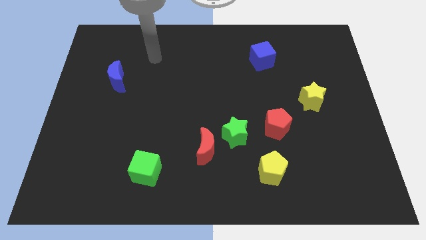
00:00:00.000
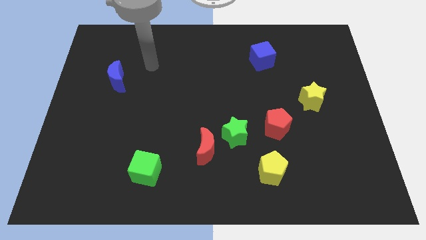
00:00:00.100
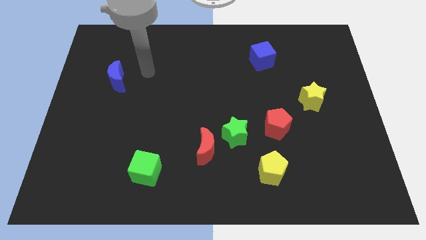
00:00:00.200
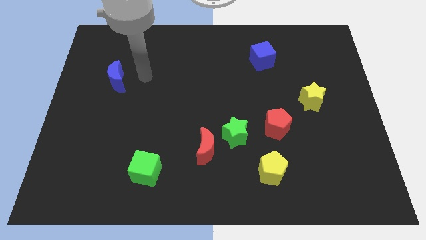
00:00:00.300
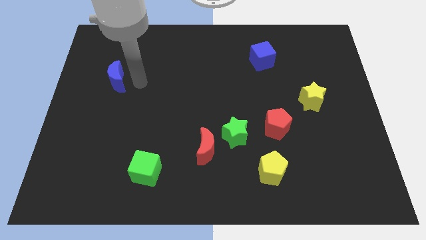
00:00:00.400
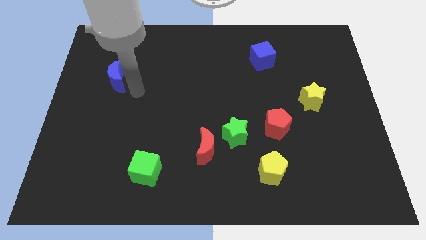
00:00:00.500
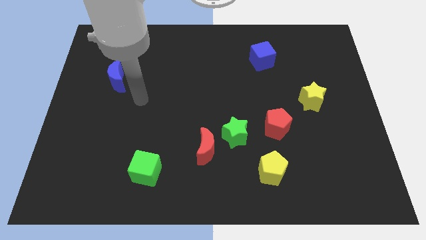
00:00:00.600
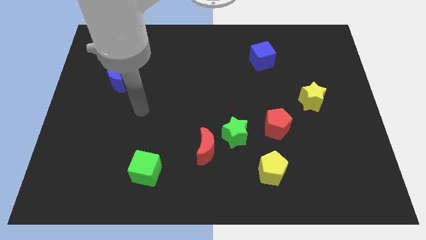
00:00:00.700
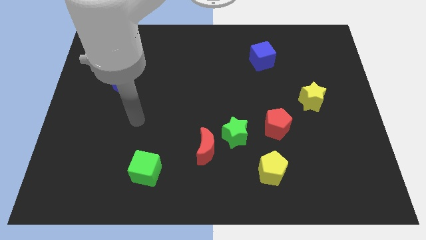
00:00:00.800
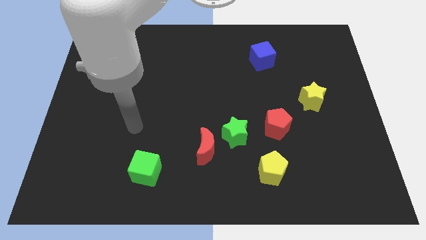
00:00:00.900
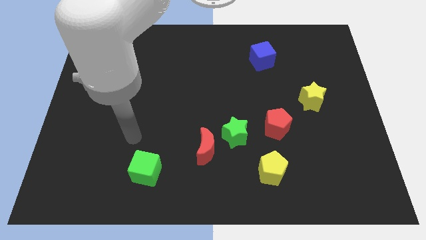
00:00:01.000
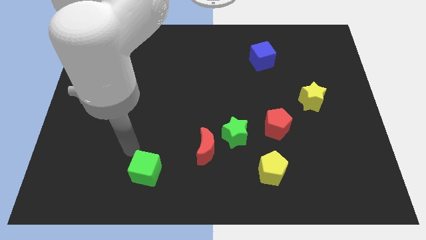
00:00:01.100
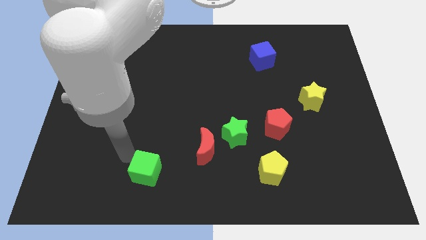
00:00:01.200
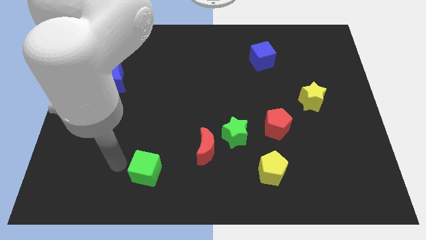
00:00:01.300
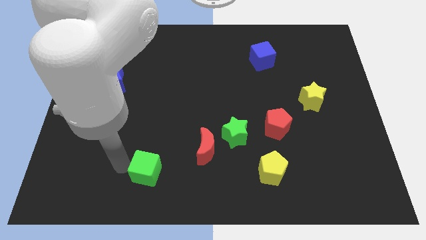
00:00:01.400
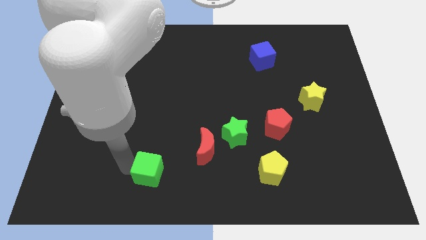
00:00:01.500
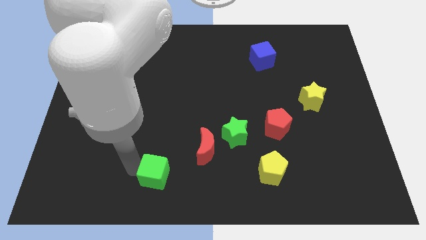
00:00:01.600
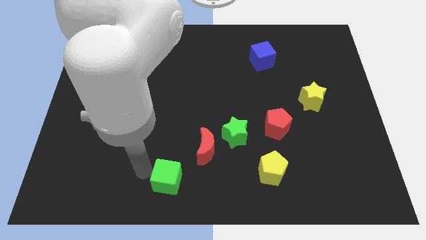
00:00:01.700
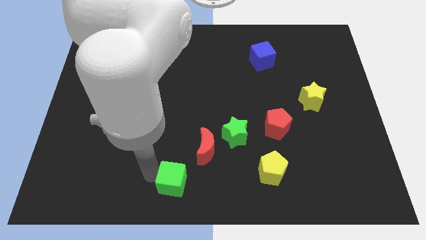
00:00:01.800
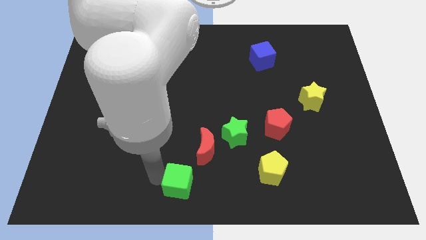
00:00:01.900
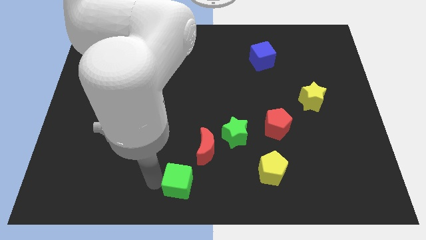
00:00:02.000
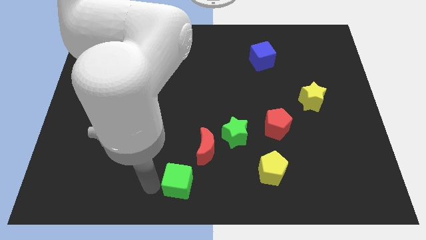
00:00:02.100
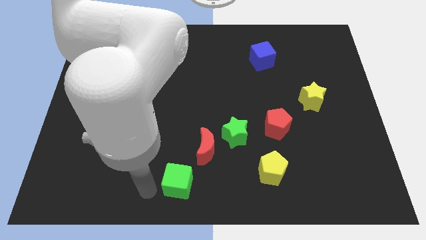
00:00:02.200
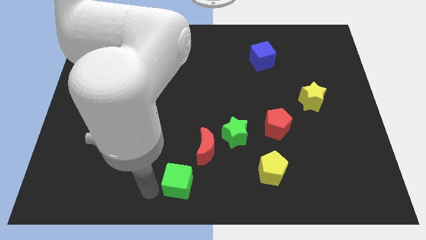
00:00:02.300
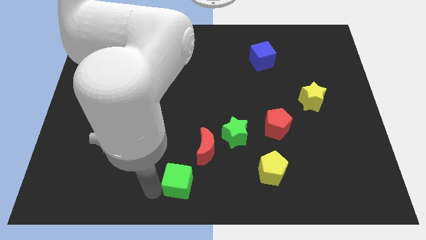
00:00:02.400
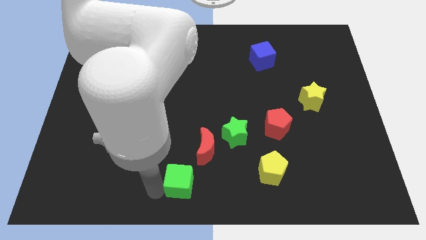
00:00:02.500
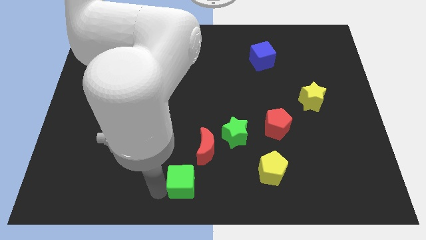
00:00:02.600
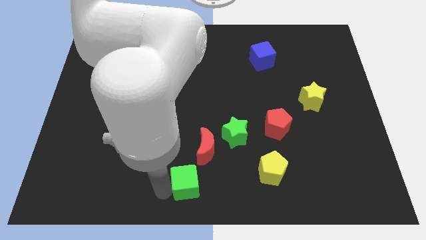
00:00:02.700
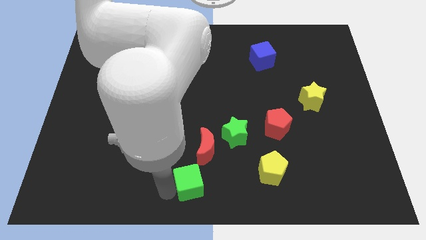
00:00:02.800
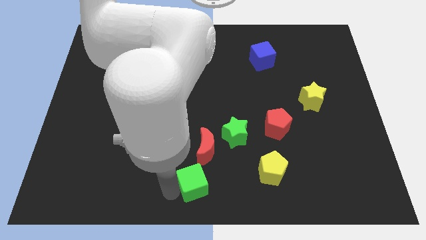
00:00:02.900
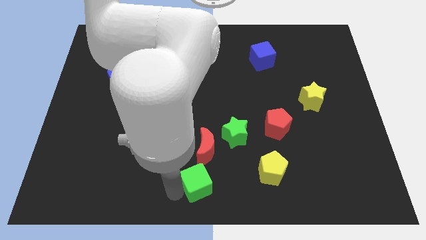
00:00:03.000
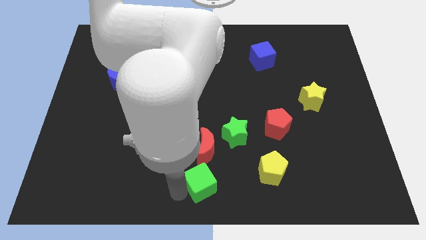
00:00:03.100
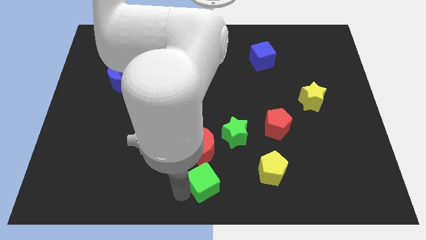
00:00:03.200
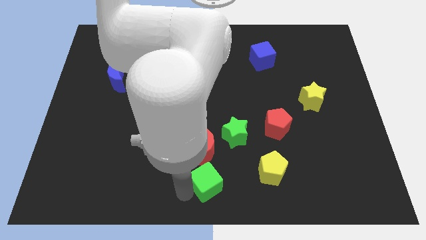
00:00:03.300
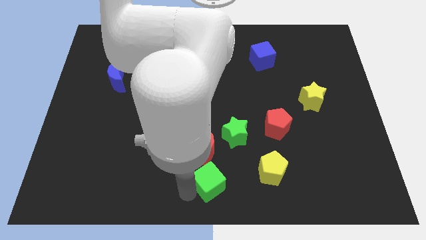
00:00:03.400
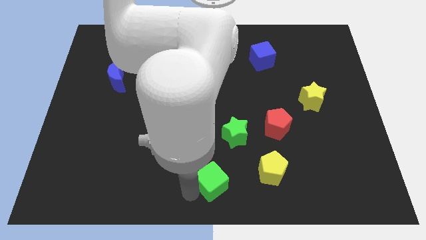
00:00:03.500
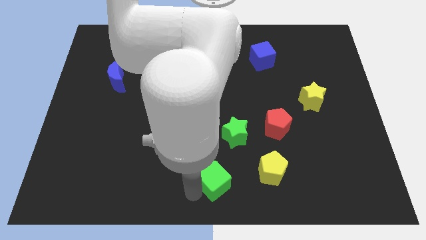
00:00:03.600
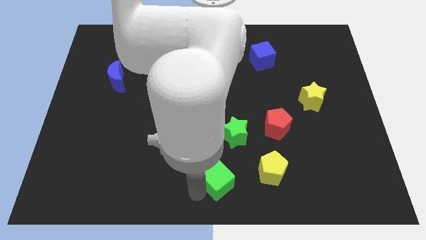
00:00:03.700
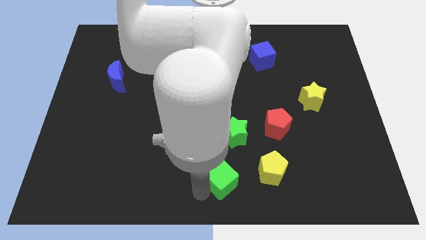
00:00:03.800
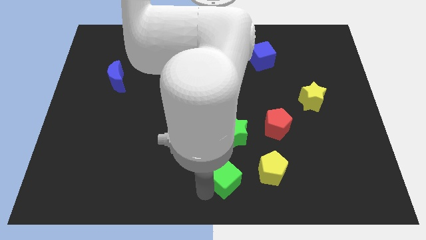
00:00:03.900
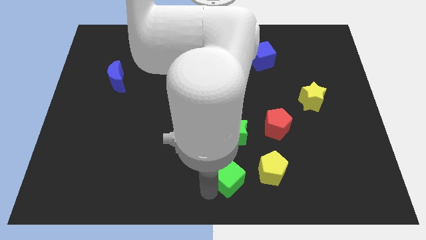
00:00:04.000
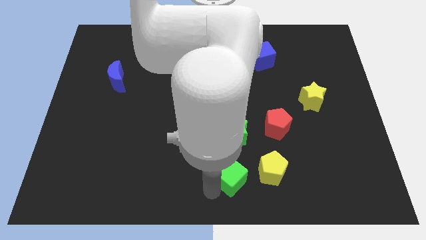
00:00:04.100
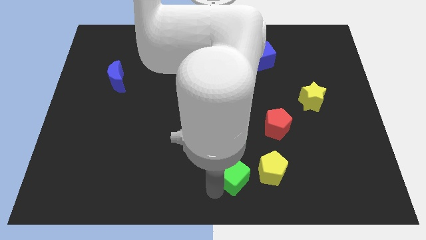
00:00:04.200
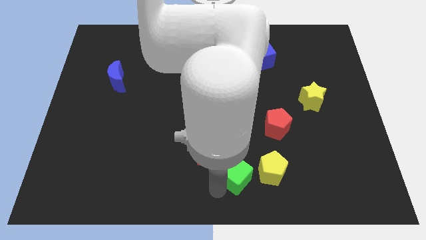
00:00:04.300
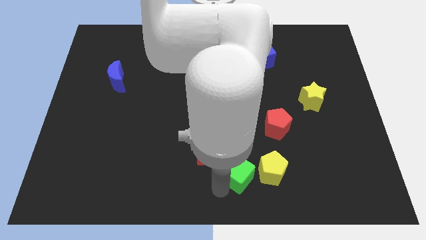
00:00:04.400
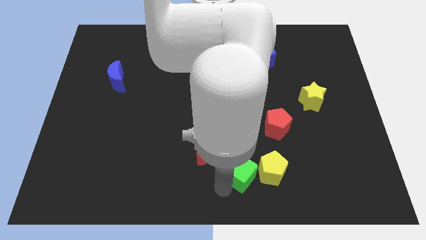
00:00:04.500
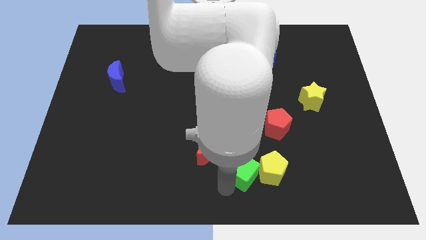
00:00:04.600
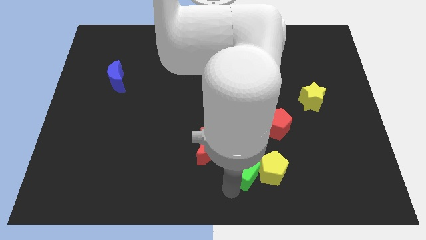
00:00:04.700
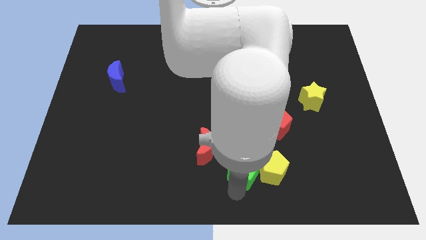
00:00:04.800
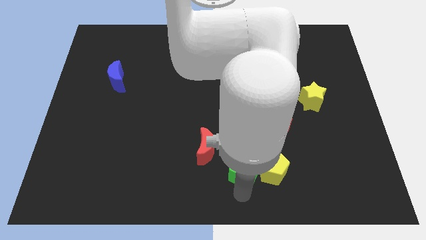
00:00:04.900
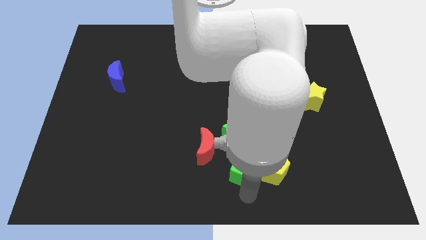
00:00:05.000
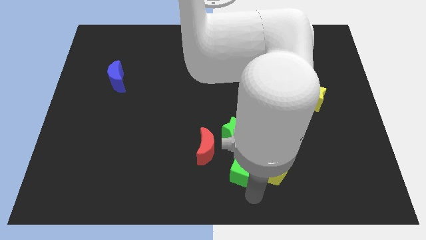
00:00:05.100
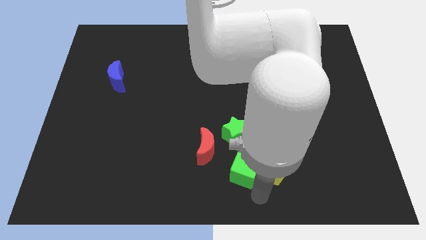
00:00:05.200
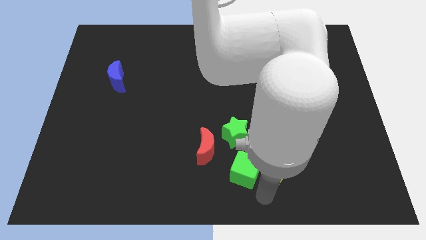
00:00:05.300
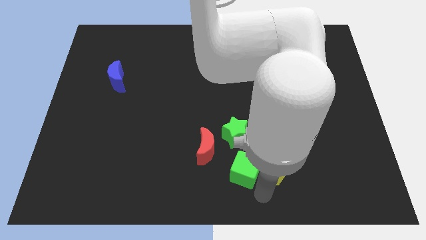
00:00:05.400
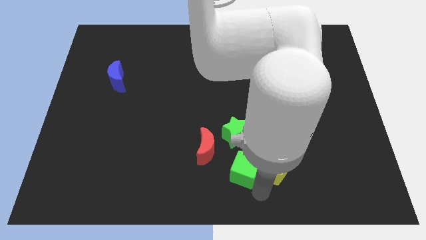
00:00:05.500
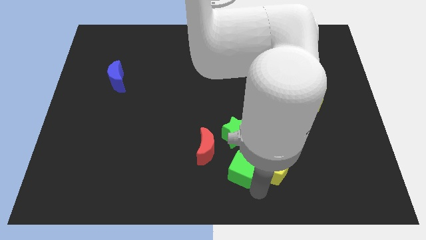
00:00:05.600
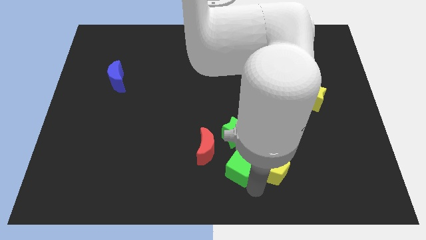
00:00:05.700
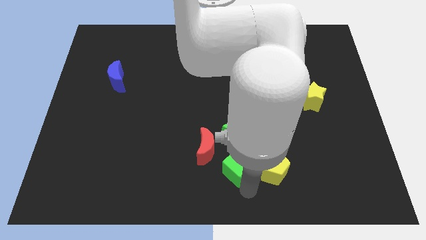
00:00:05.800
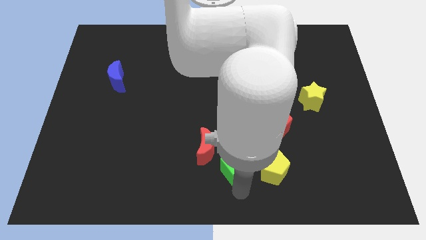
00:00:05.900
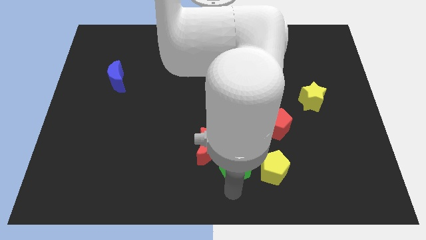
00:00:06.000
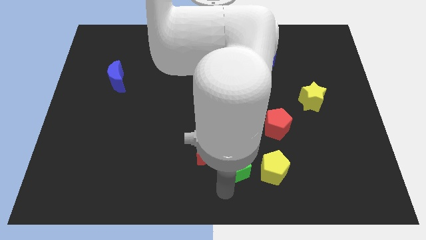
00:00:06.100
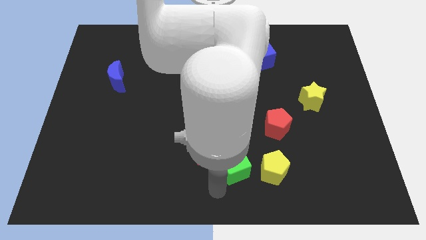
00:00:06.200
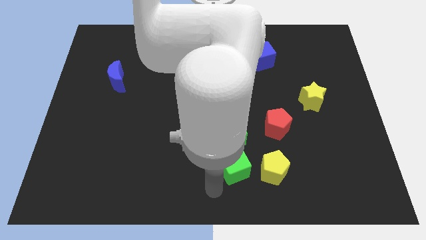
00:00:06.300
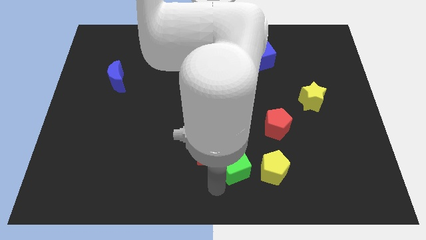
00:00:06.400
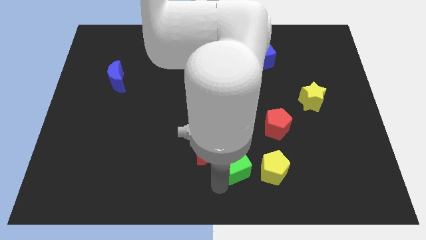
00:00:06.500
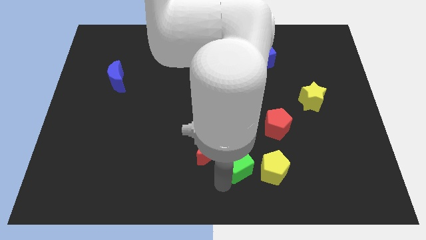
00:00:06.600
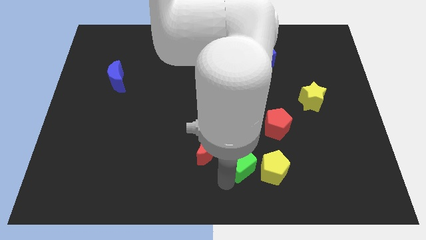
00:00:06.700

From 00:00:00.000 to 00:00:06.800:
put the green cube to the bottom left of the red pentagon
